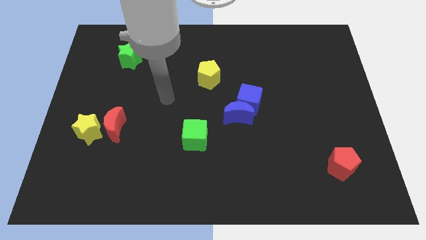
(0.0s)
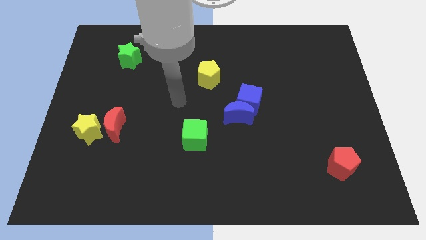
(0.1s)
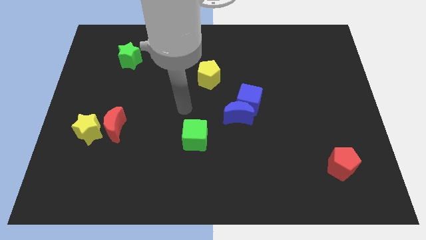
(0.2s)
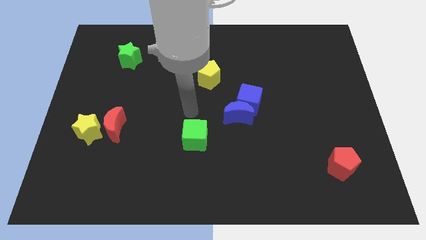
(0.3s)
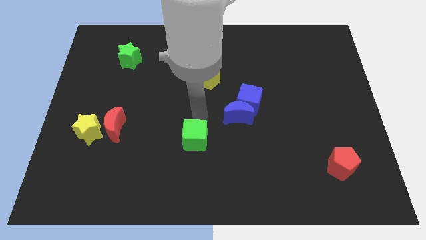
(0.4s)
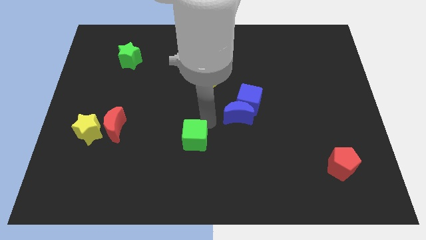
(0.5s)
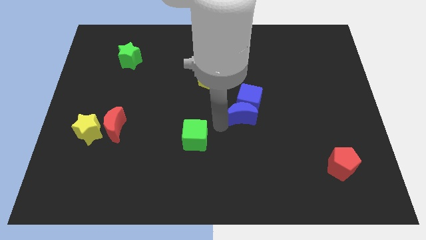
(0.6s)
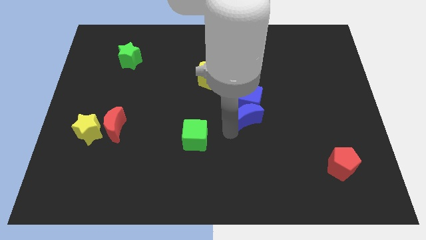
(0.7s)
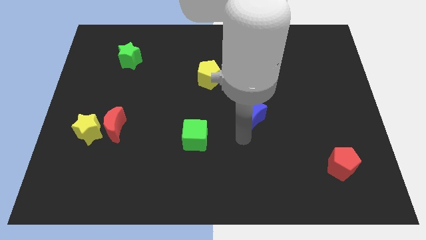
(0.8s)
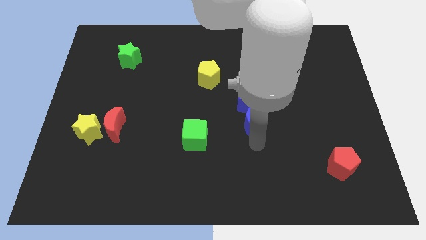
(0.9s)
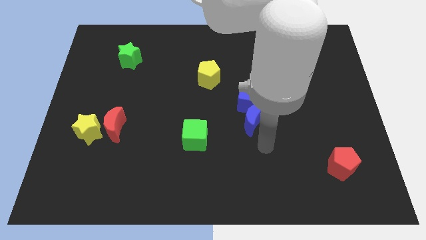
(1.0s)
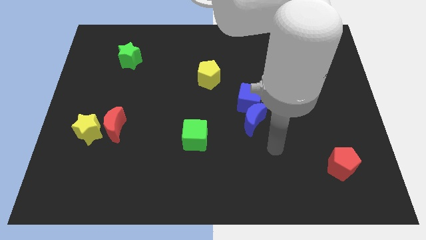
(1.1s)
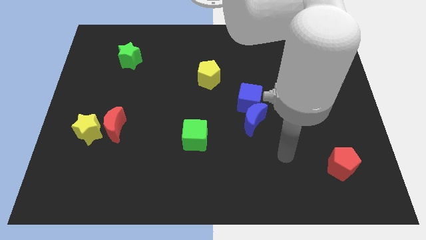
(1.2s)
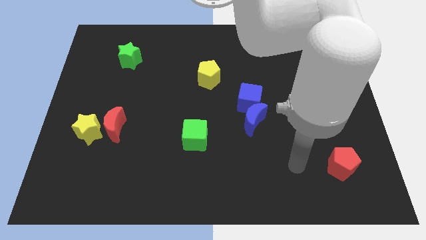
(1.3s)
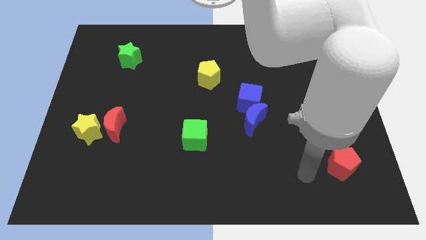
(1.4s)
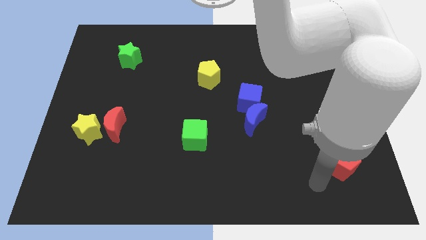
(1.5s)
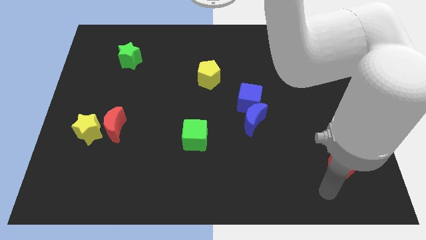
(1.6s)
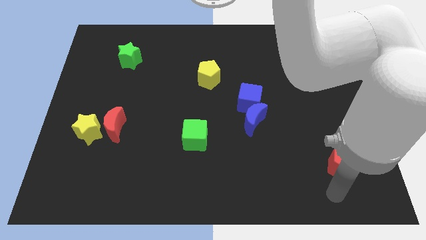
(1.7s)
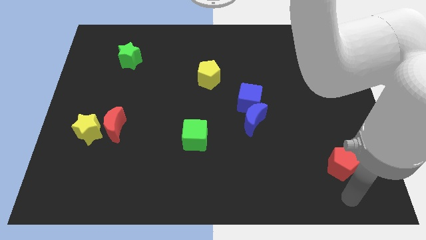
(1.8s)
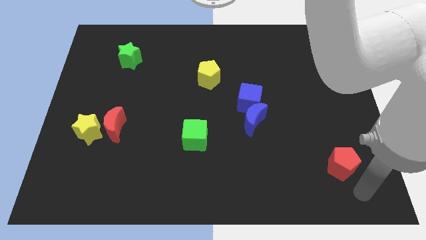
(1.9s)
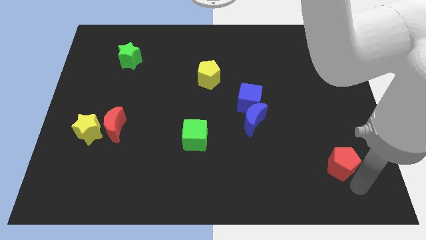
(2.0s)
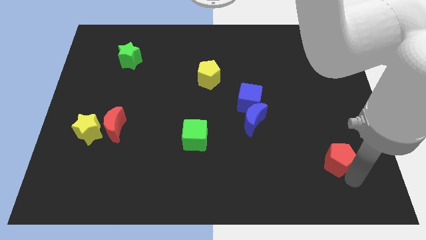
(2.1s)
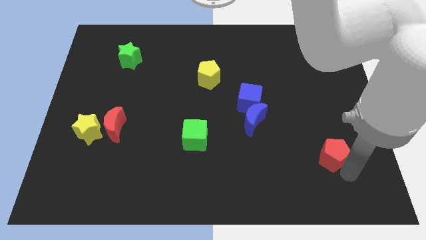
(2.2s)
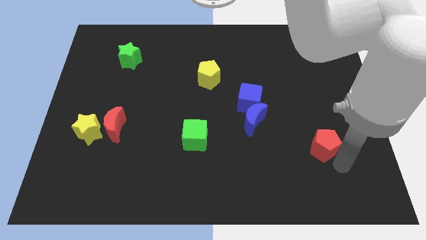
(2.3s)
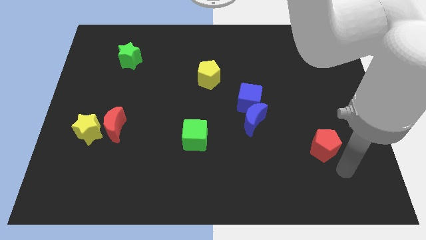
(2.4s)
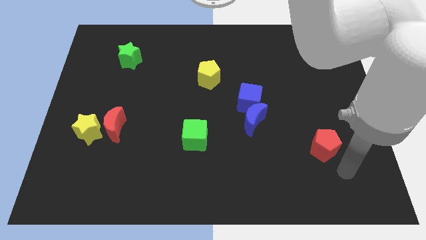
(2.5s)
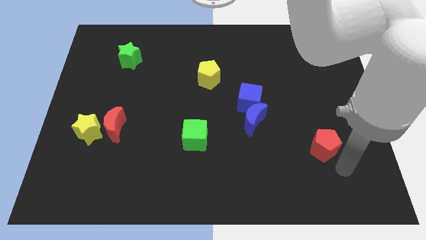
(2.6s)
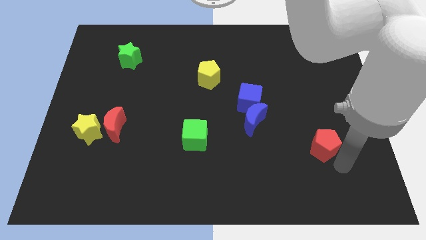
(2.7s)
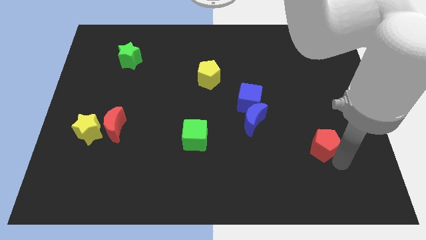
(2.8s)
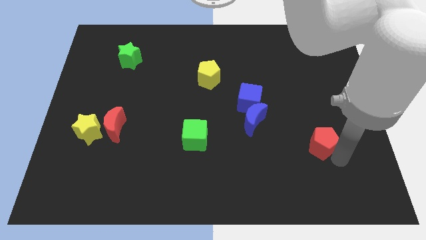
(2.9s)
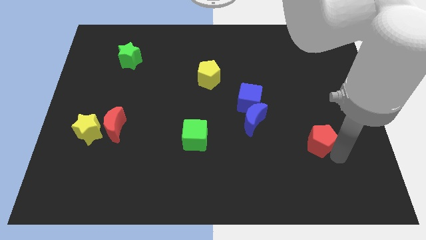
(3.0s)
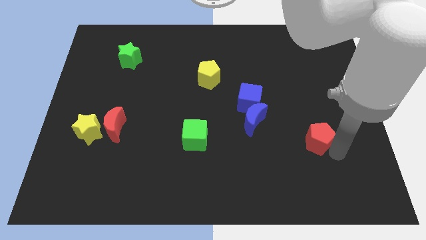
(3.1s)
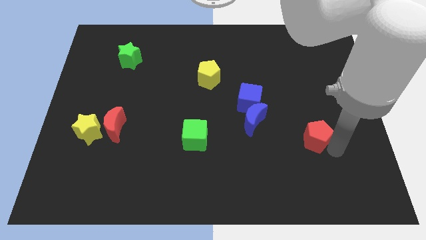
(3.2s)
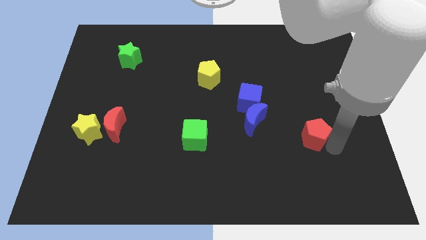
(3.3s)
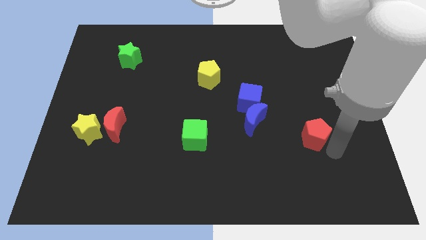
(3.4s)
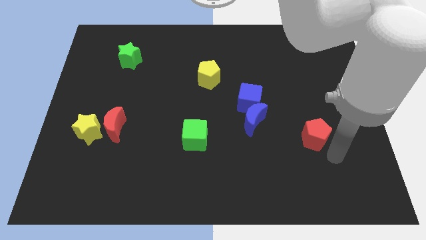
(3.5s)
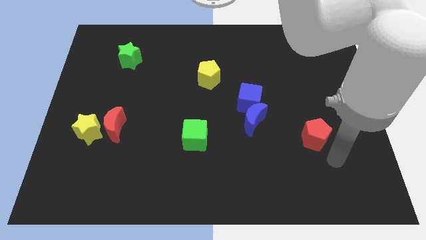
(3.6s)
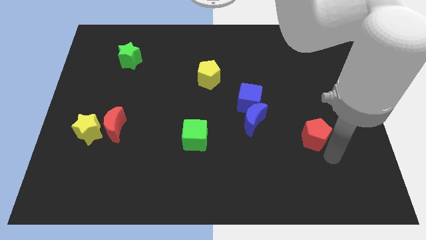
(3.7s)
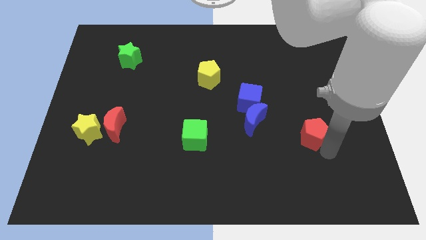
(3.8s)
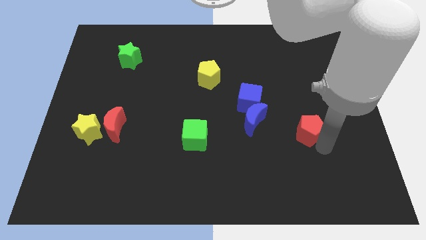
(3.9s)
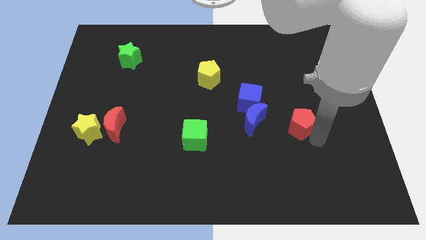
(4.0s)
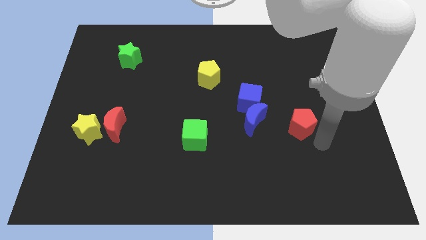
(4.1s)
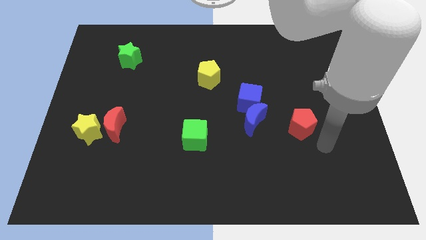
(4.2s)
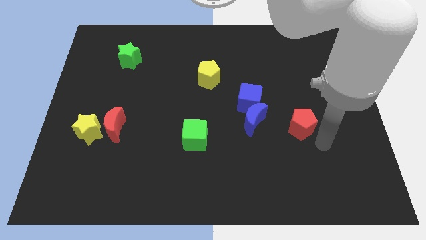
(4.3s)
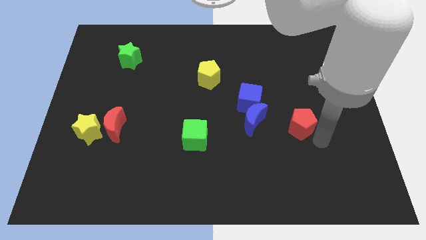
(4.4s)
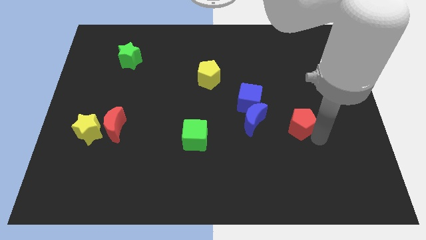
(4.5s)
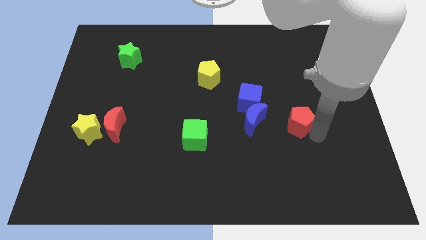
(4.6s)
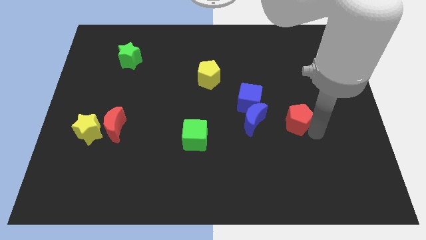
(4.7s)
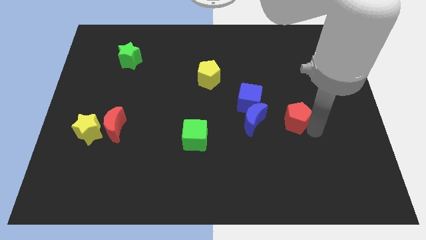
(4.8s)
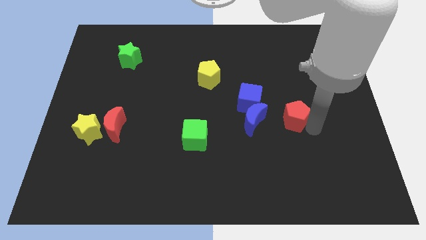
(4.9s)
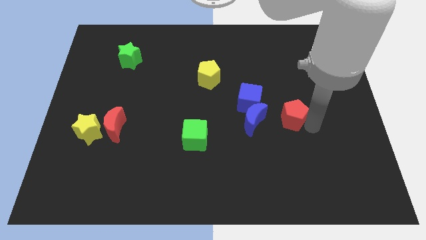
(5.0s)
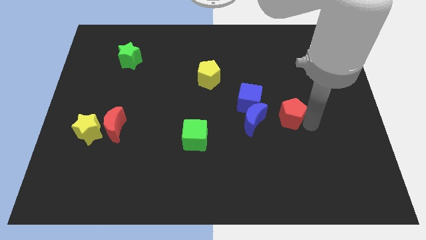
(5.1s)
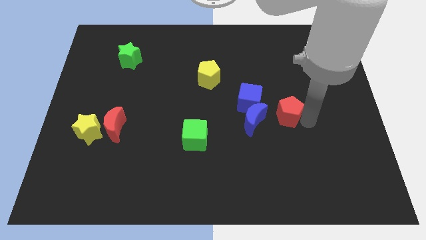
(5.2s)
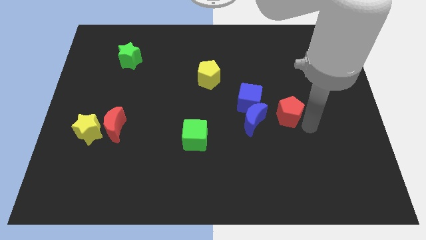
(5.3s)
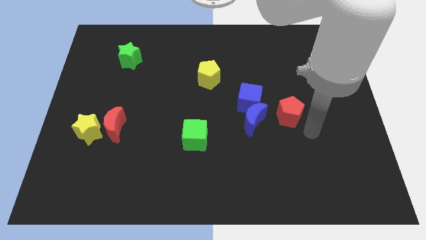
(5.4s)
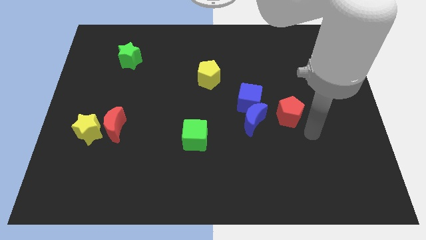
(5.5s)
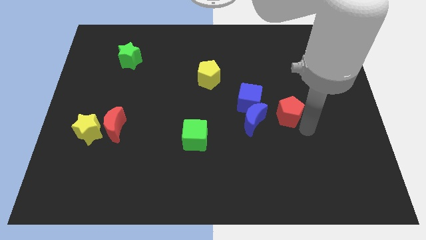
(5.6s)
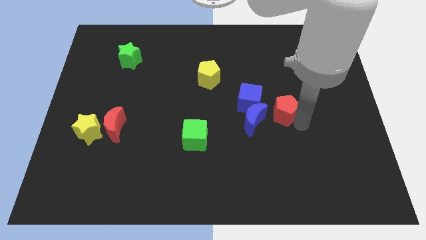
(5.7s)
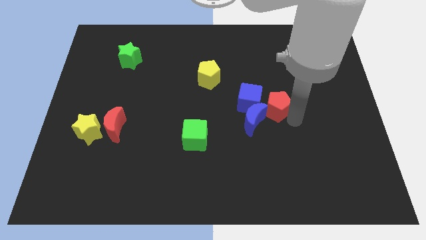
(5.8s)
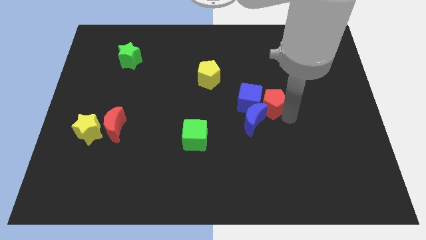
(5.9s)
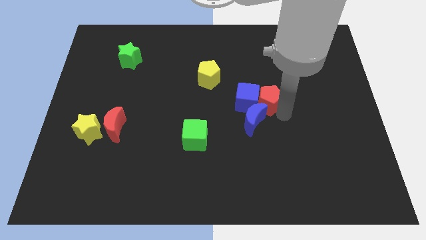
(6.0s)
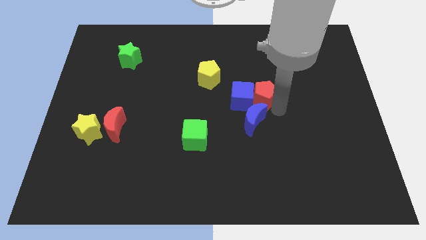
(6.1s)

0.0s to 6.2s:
push the red pentagon to the center
